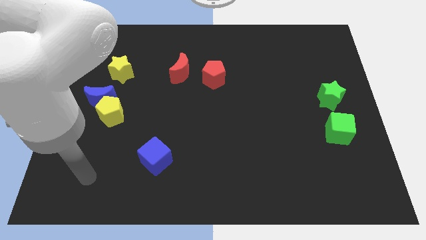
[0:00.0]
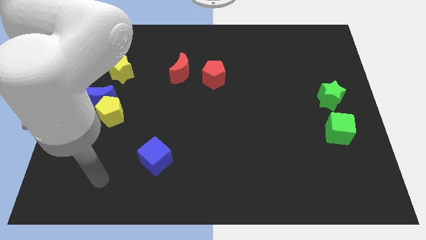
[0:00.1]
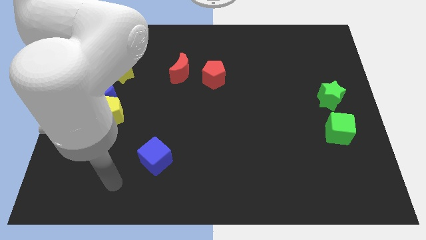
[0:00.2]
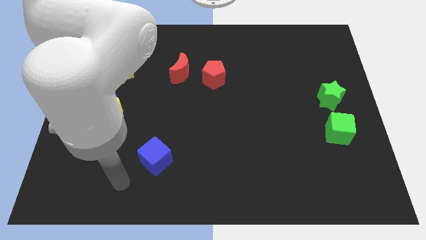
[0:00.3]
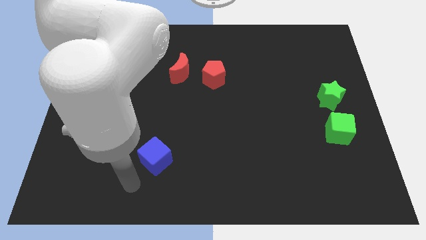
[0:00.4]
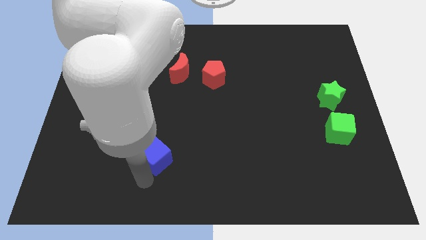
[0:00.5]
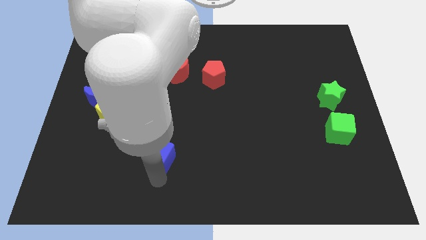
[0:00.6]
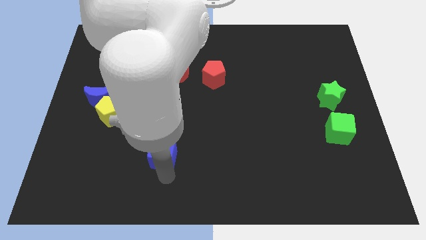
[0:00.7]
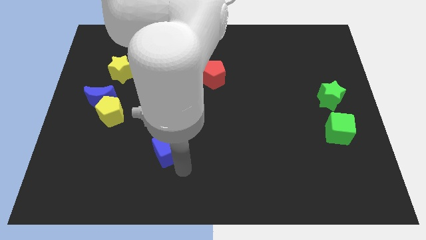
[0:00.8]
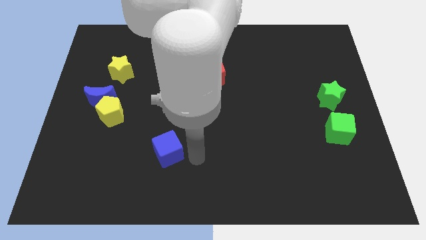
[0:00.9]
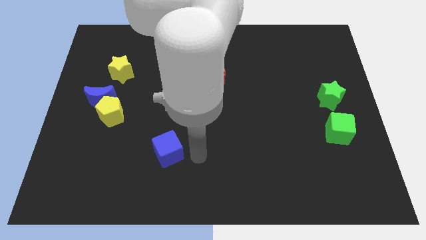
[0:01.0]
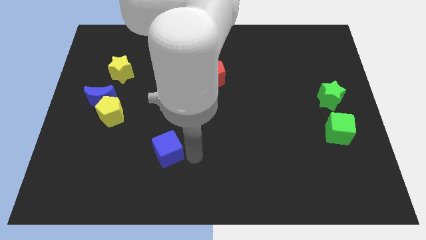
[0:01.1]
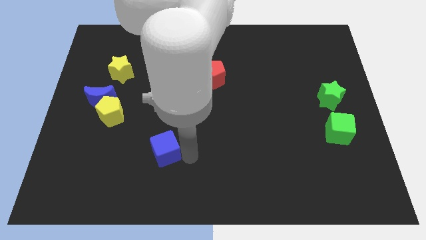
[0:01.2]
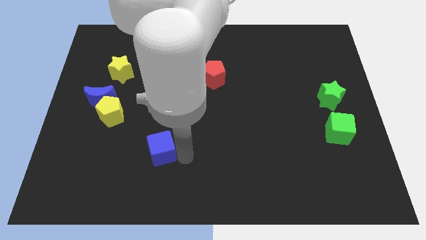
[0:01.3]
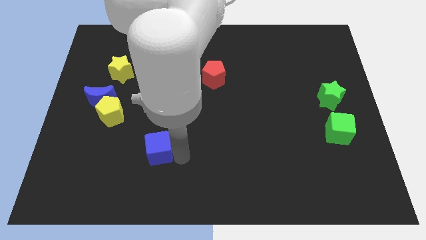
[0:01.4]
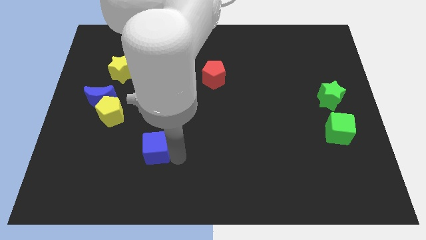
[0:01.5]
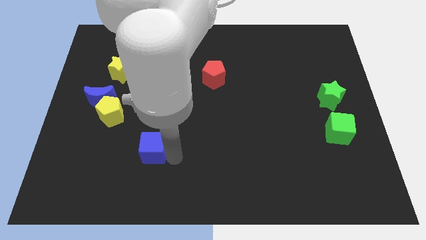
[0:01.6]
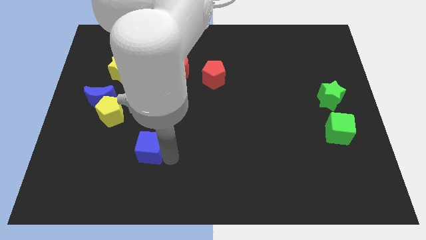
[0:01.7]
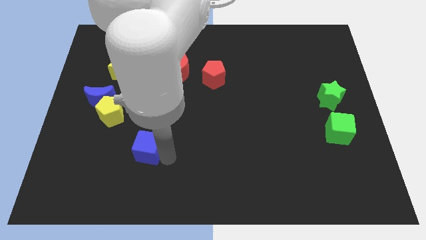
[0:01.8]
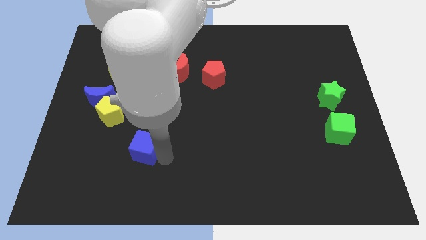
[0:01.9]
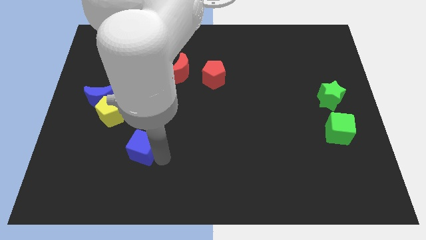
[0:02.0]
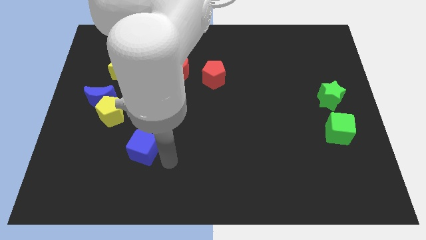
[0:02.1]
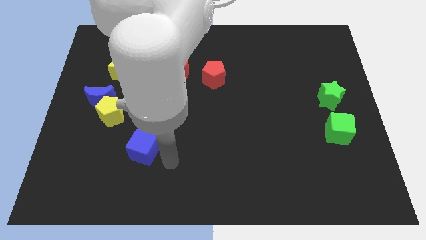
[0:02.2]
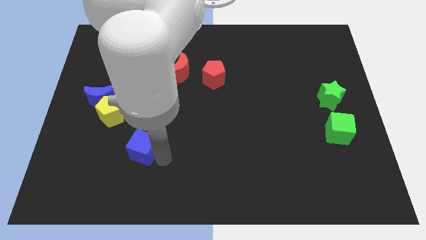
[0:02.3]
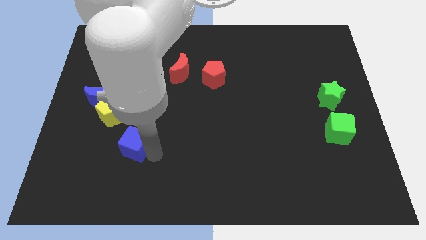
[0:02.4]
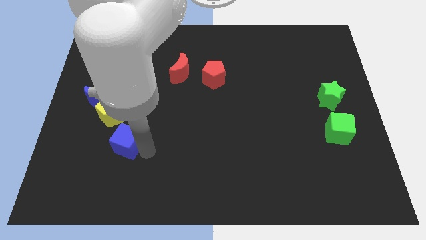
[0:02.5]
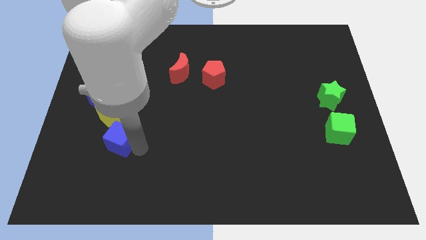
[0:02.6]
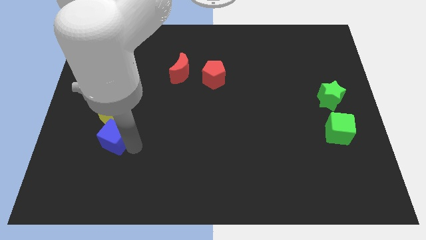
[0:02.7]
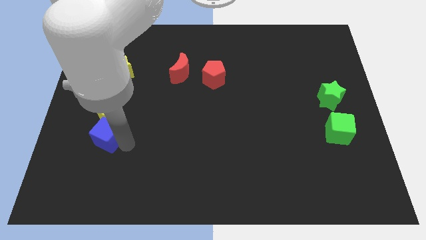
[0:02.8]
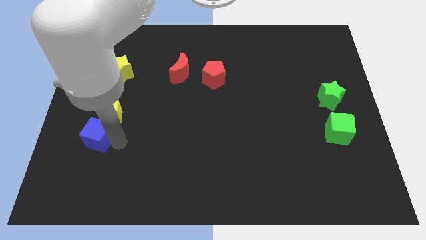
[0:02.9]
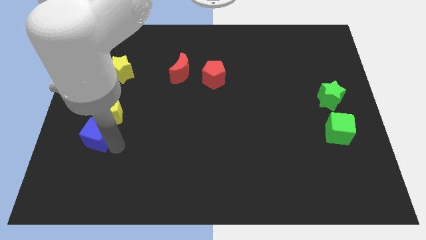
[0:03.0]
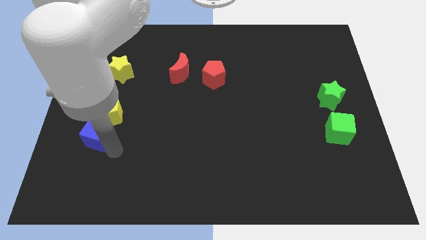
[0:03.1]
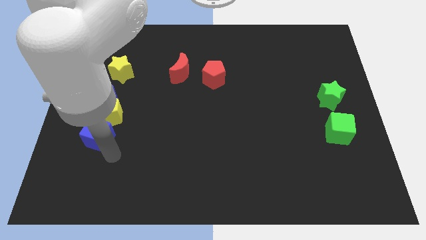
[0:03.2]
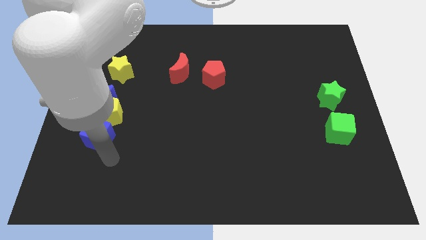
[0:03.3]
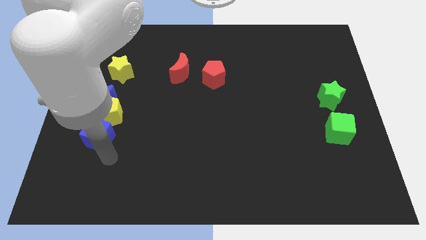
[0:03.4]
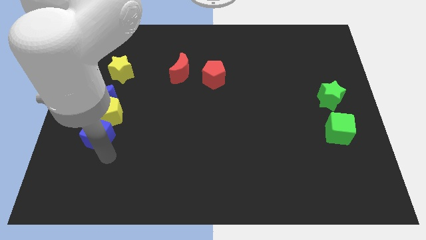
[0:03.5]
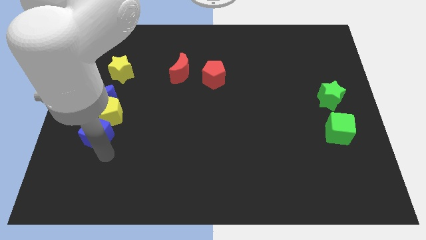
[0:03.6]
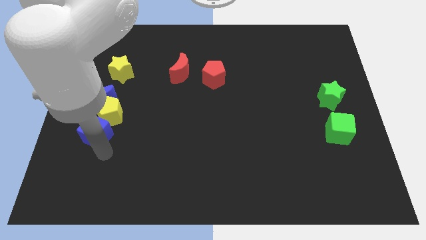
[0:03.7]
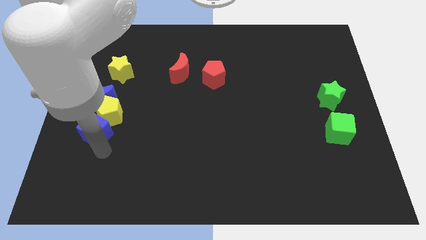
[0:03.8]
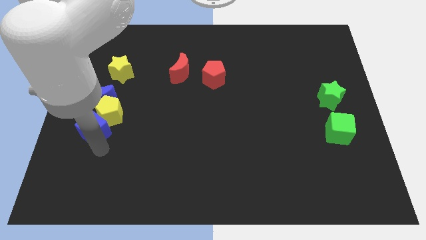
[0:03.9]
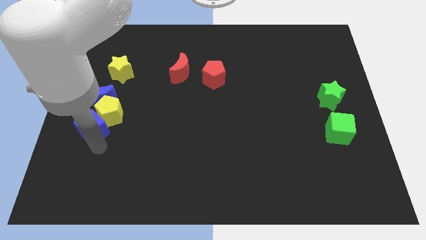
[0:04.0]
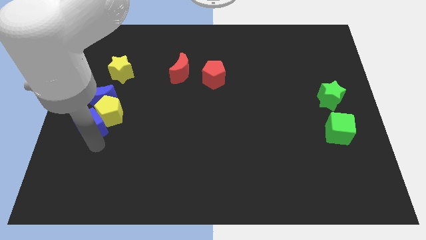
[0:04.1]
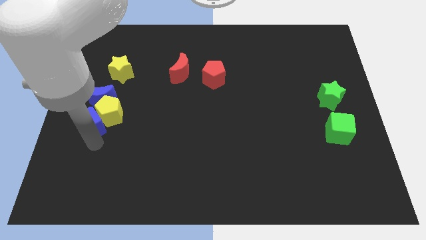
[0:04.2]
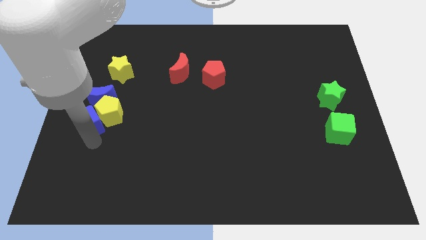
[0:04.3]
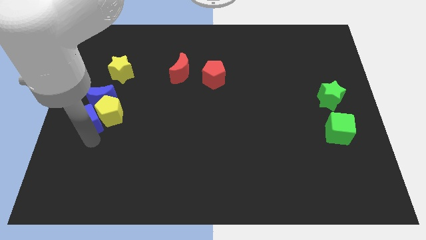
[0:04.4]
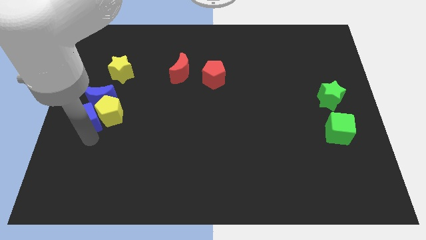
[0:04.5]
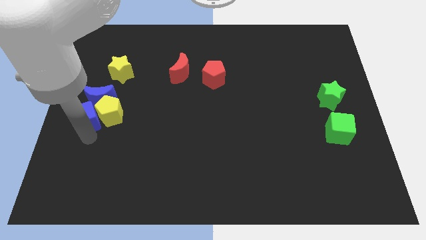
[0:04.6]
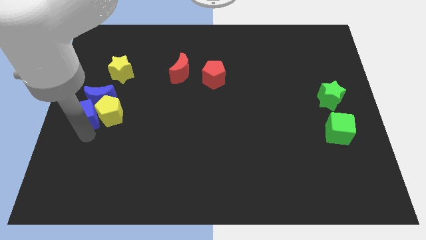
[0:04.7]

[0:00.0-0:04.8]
push the blue cube close to the blue moon

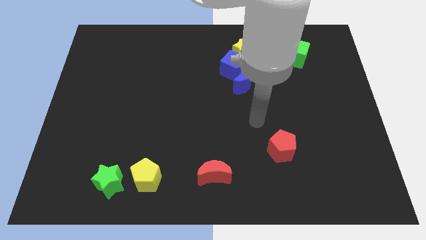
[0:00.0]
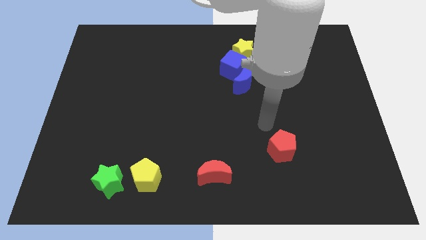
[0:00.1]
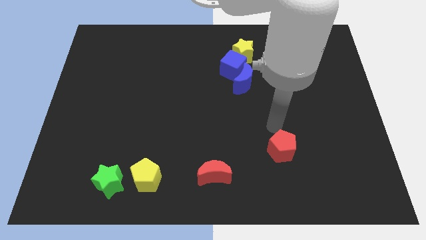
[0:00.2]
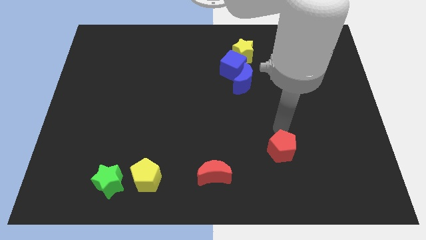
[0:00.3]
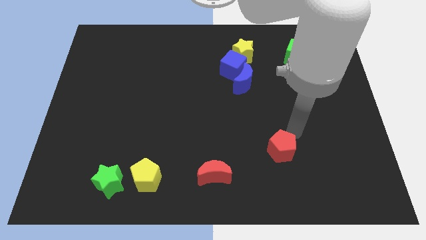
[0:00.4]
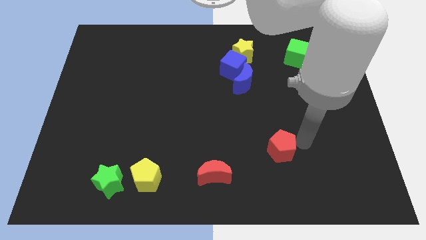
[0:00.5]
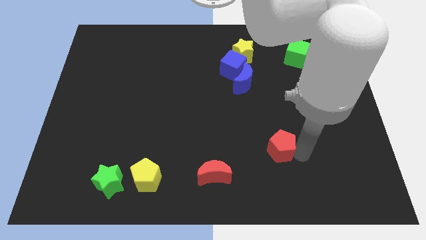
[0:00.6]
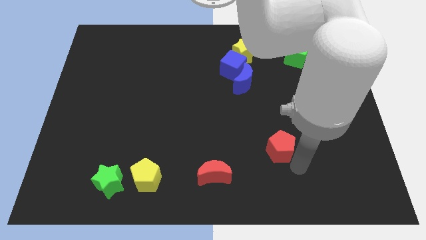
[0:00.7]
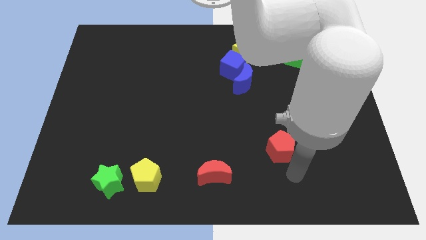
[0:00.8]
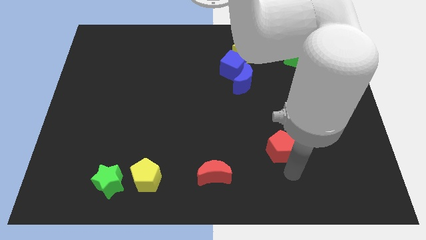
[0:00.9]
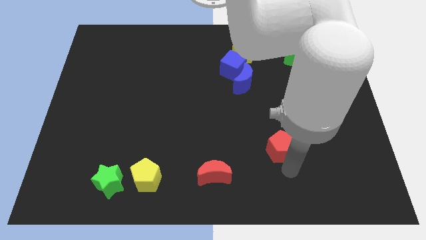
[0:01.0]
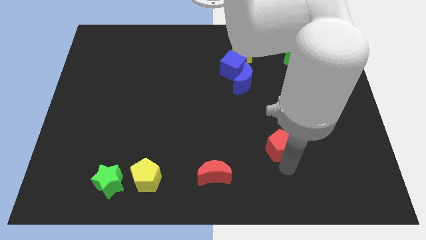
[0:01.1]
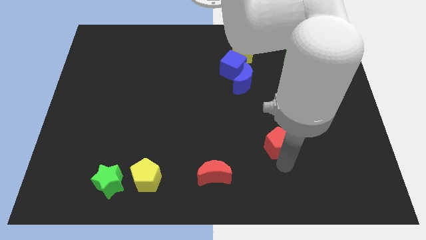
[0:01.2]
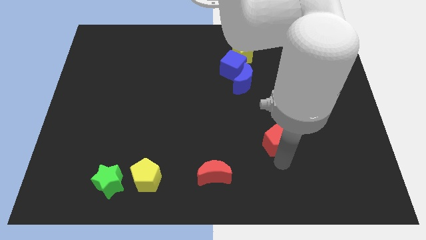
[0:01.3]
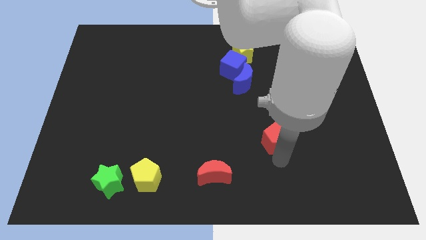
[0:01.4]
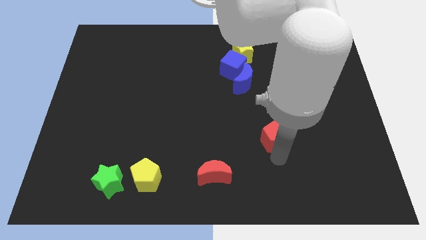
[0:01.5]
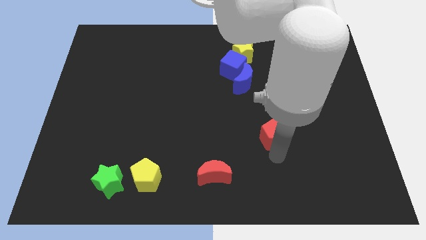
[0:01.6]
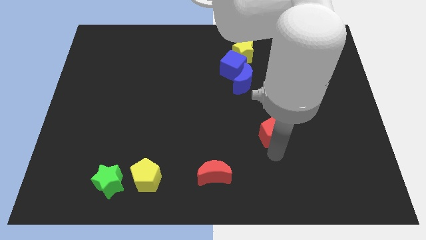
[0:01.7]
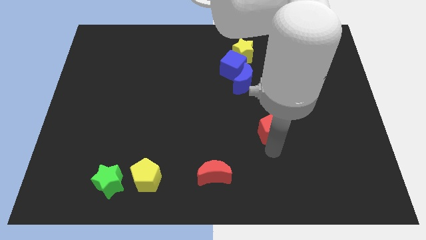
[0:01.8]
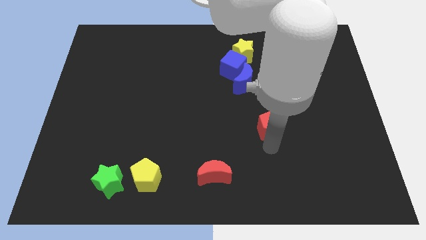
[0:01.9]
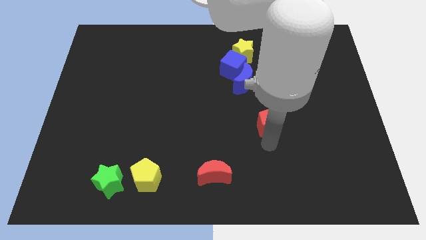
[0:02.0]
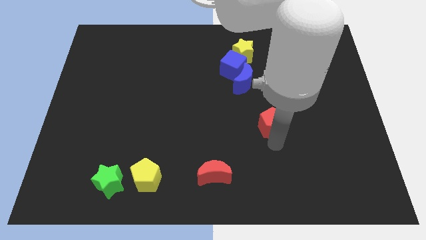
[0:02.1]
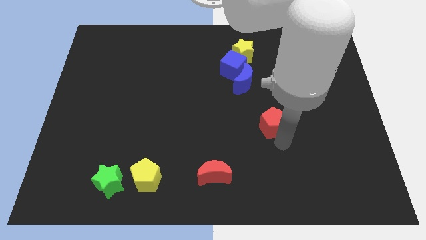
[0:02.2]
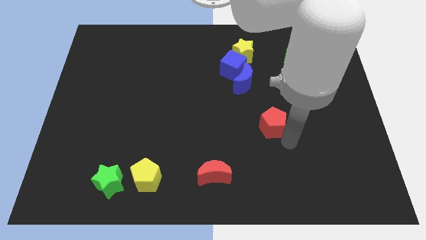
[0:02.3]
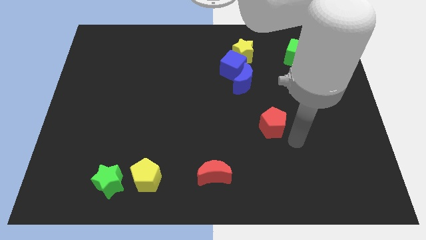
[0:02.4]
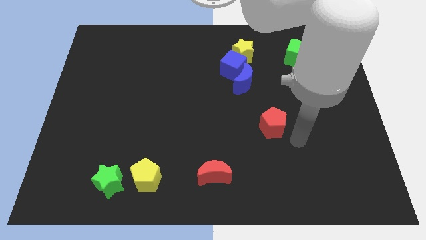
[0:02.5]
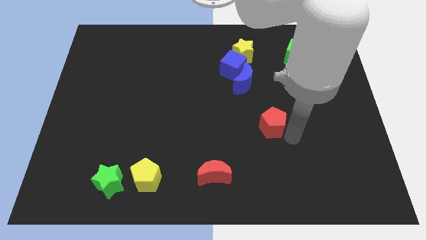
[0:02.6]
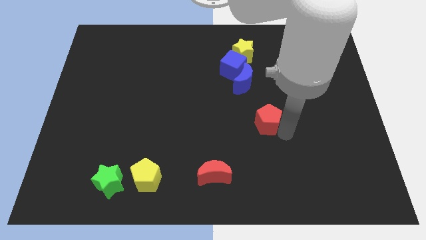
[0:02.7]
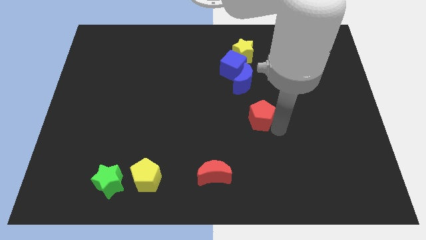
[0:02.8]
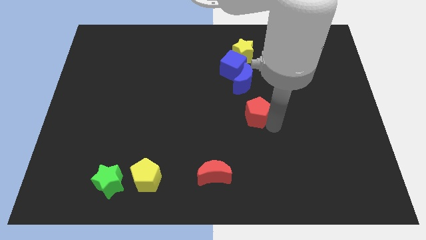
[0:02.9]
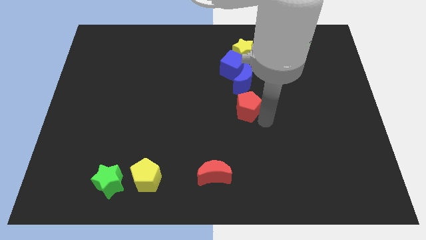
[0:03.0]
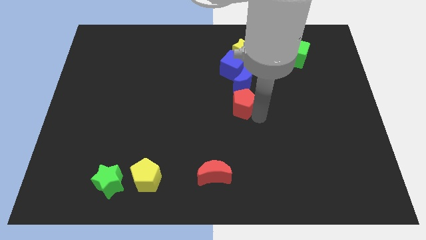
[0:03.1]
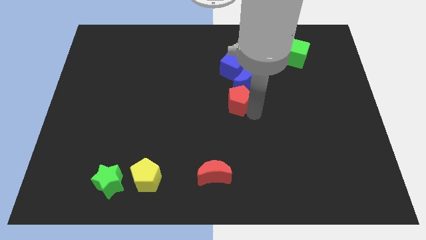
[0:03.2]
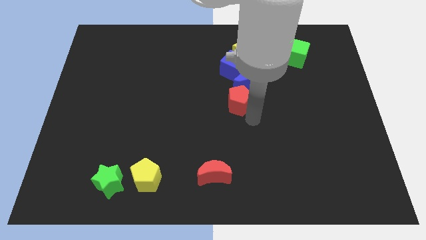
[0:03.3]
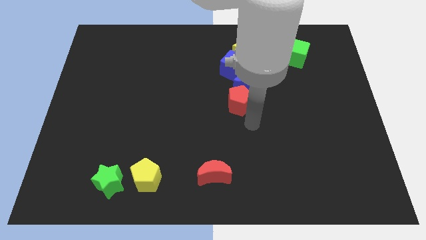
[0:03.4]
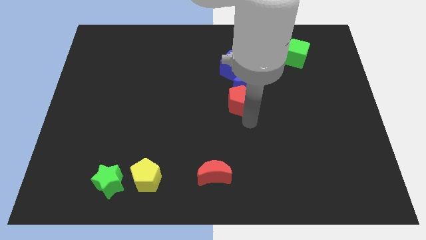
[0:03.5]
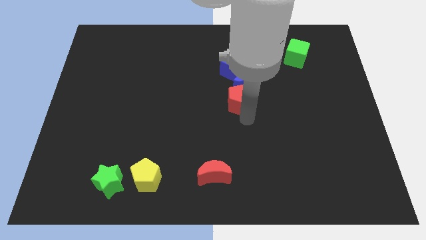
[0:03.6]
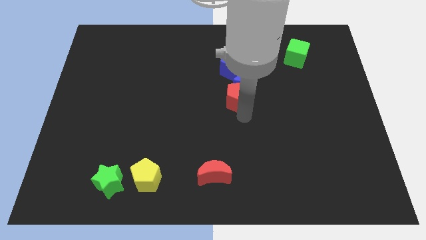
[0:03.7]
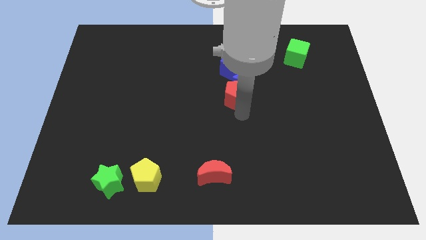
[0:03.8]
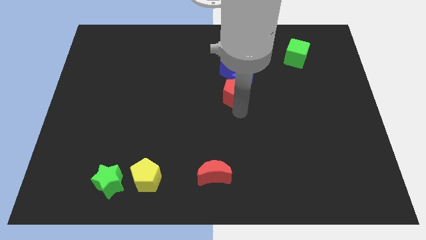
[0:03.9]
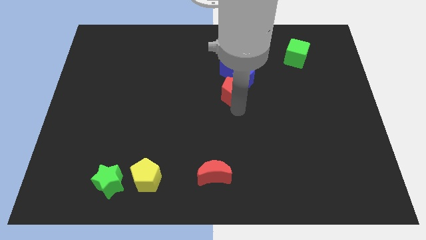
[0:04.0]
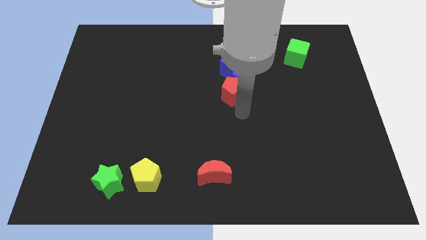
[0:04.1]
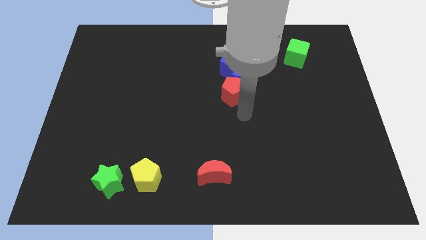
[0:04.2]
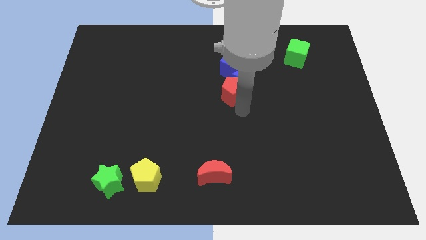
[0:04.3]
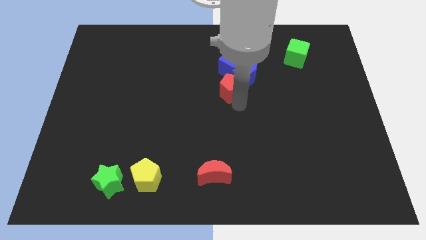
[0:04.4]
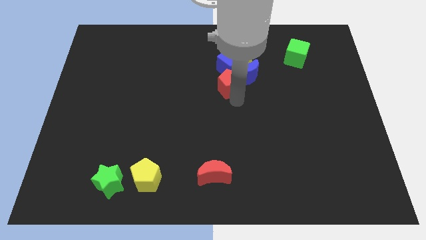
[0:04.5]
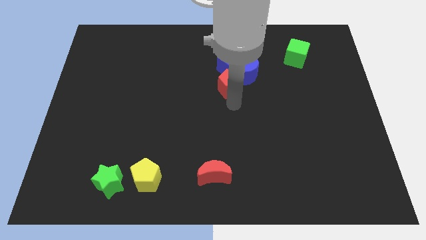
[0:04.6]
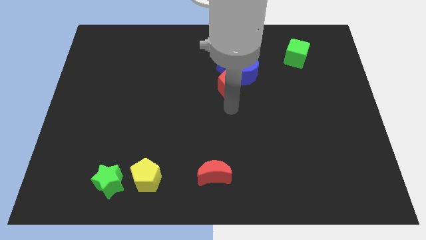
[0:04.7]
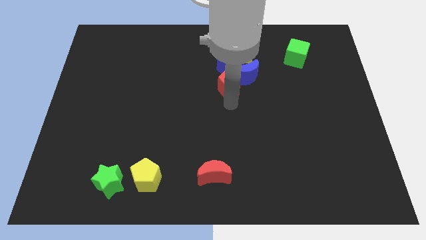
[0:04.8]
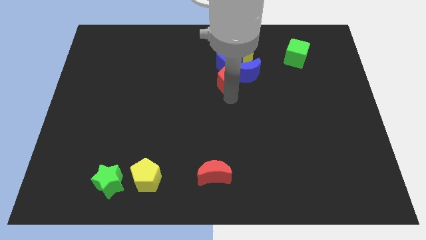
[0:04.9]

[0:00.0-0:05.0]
slide the red pentagon close to the blue cube
